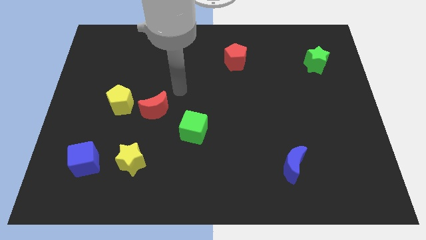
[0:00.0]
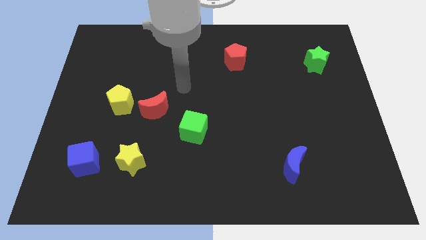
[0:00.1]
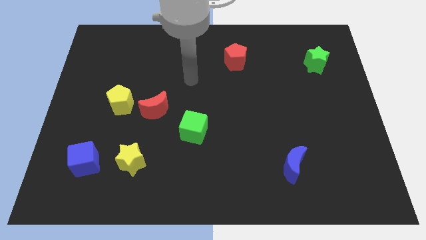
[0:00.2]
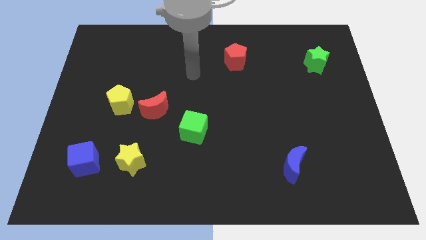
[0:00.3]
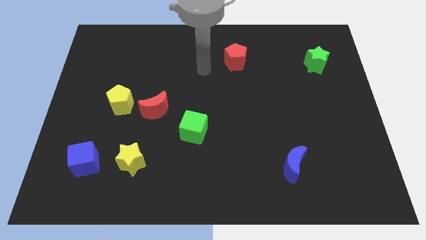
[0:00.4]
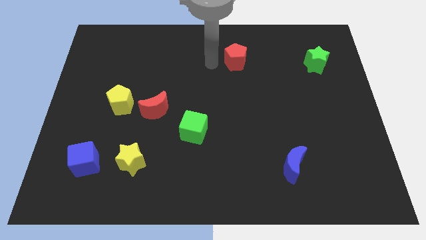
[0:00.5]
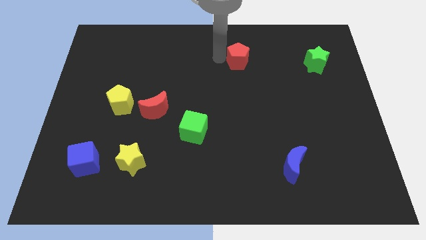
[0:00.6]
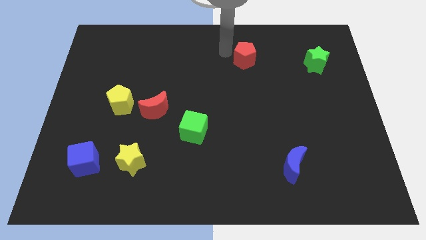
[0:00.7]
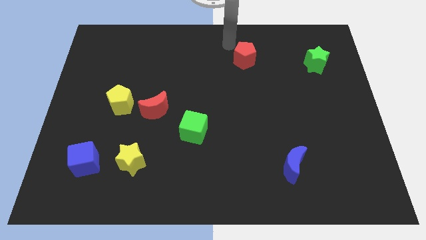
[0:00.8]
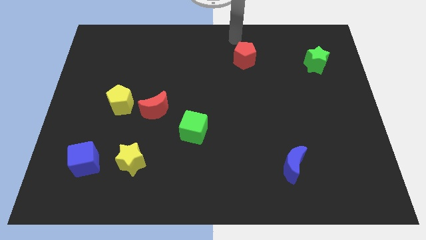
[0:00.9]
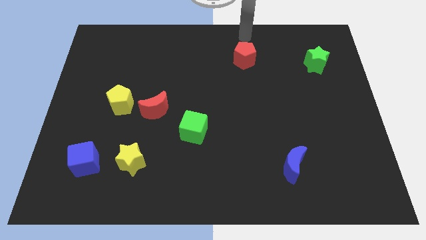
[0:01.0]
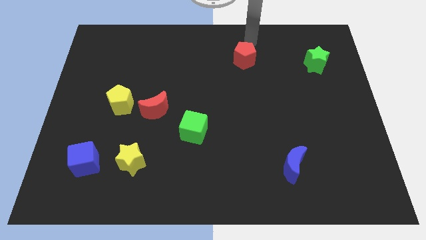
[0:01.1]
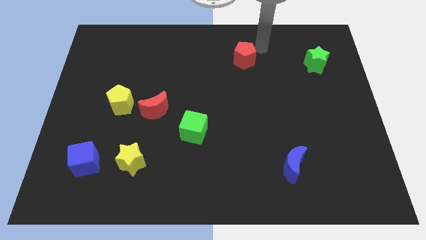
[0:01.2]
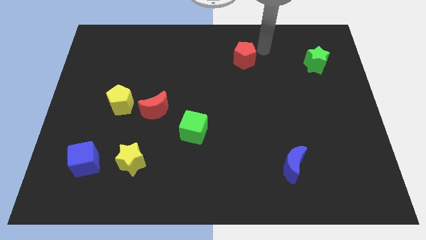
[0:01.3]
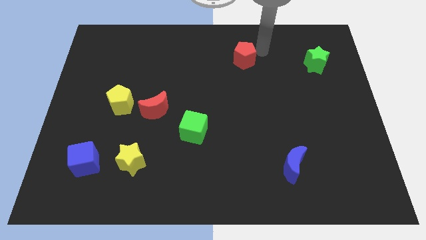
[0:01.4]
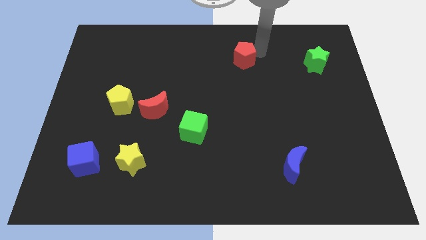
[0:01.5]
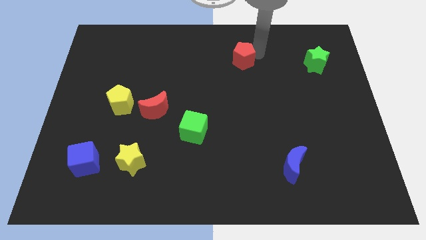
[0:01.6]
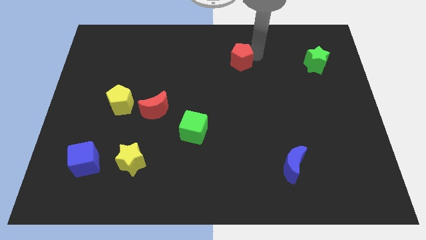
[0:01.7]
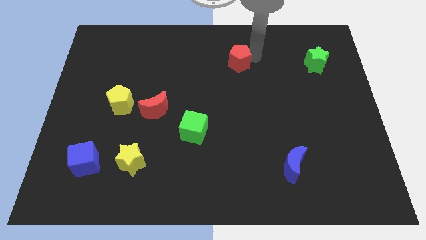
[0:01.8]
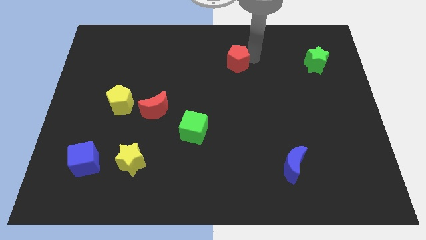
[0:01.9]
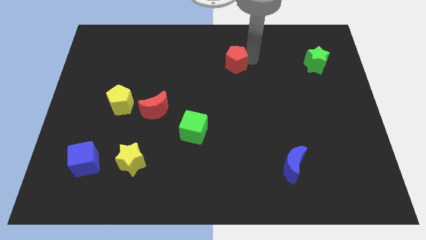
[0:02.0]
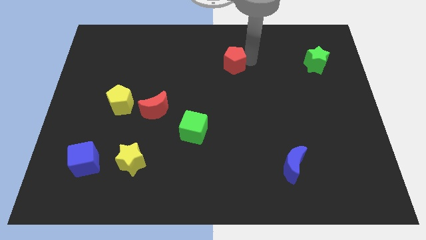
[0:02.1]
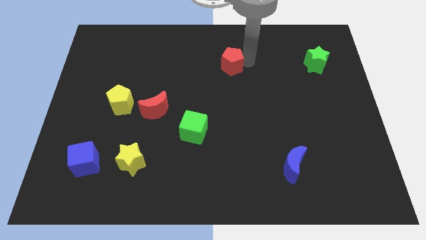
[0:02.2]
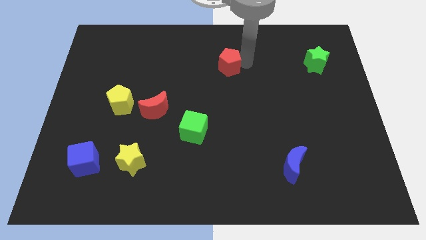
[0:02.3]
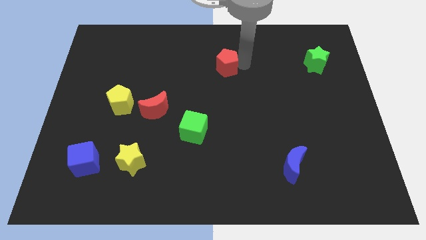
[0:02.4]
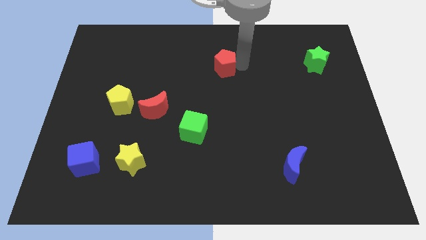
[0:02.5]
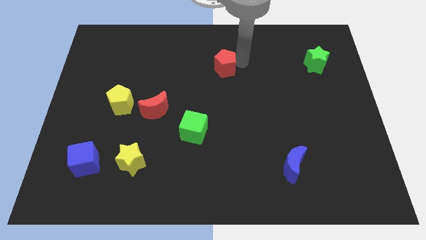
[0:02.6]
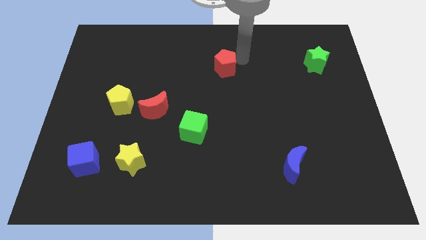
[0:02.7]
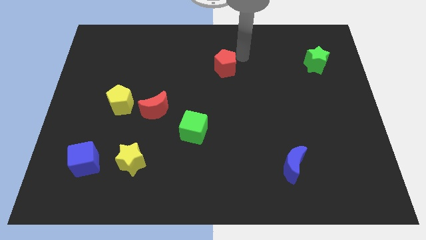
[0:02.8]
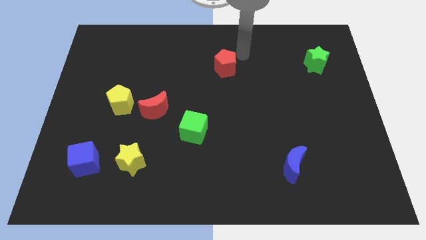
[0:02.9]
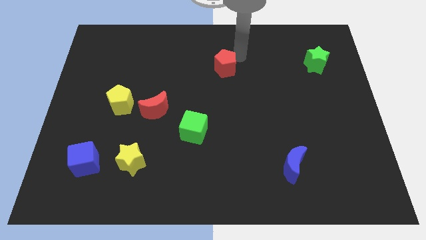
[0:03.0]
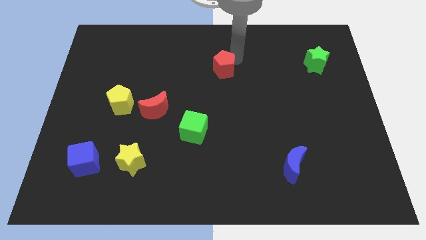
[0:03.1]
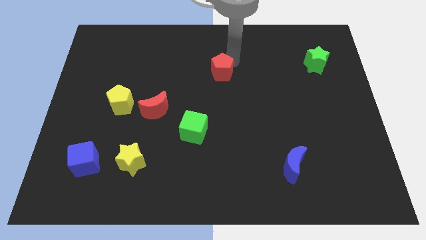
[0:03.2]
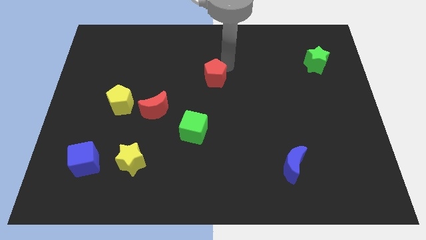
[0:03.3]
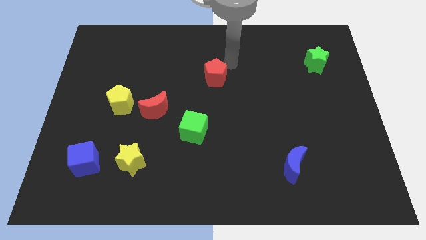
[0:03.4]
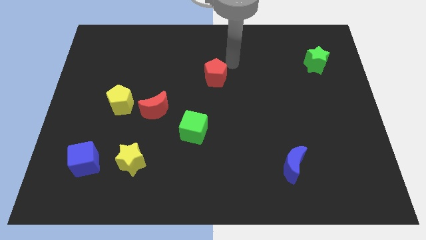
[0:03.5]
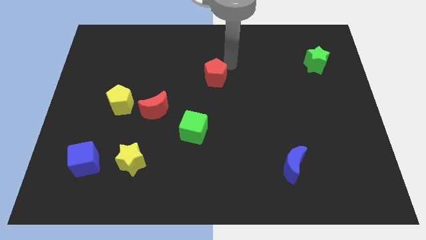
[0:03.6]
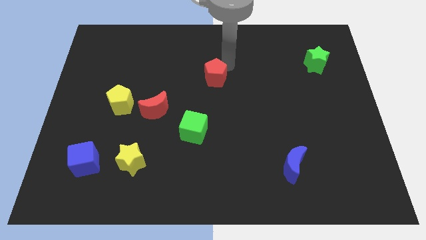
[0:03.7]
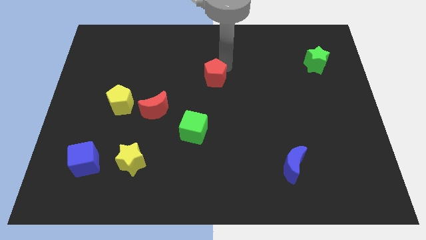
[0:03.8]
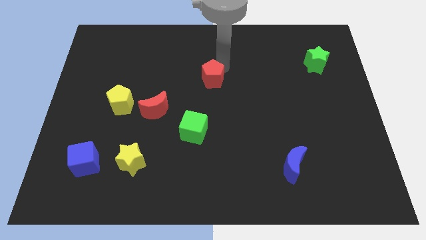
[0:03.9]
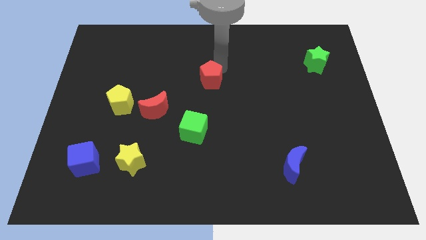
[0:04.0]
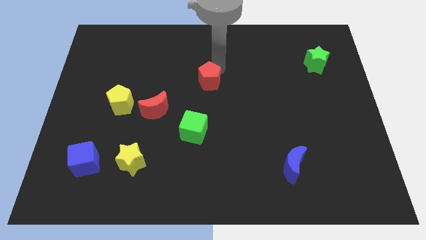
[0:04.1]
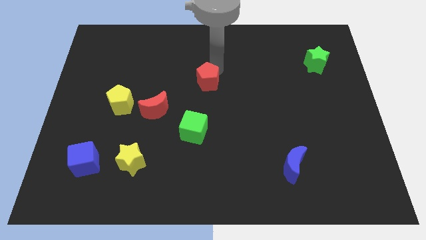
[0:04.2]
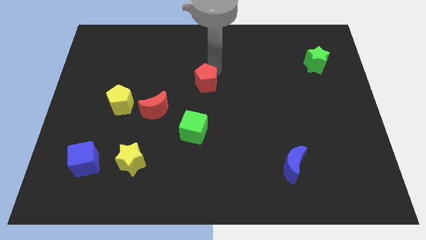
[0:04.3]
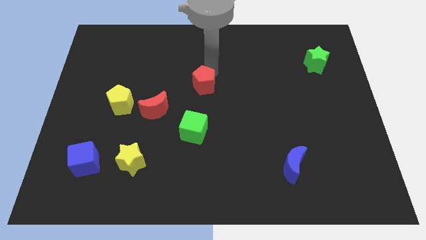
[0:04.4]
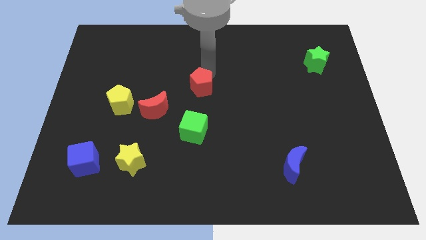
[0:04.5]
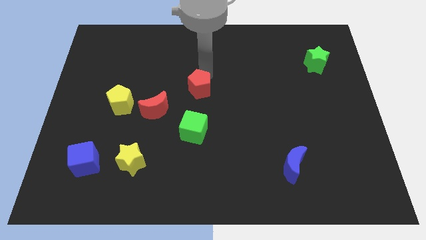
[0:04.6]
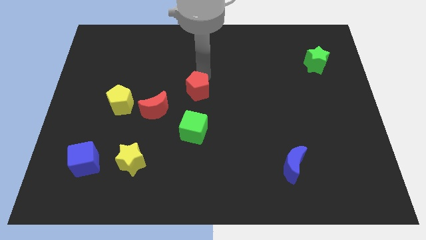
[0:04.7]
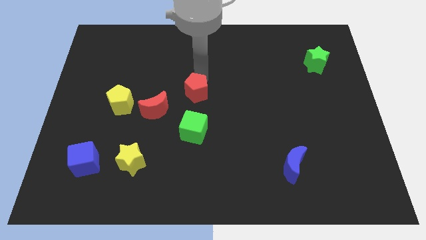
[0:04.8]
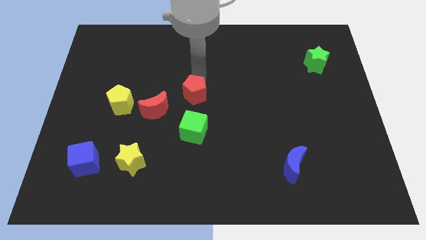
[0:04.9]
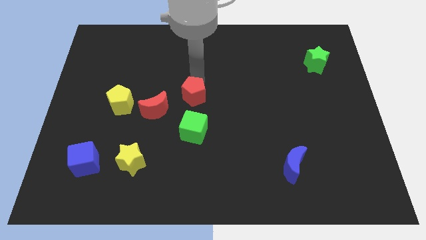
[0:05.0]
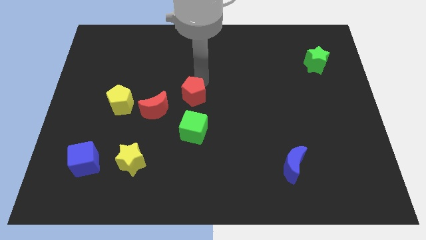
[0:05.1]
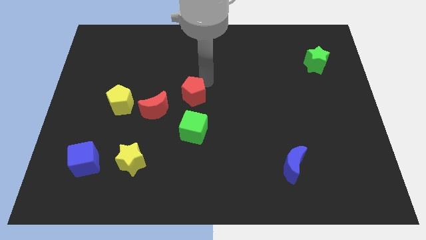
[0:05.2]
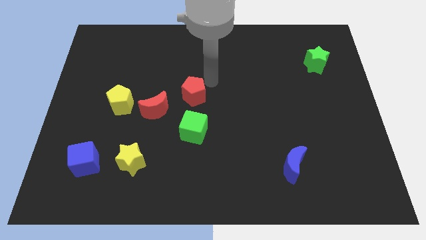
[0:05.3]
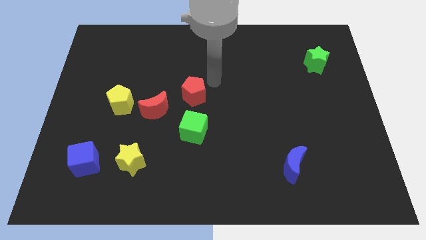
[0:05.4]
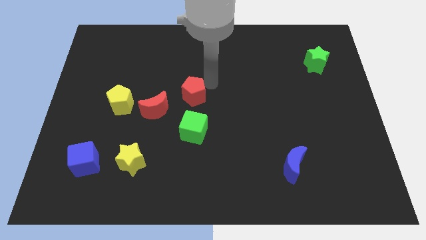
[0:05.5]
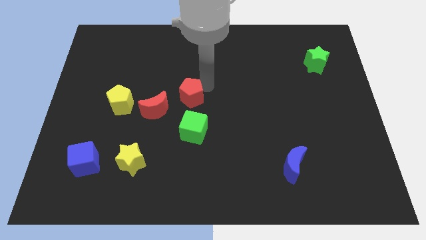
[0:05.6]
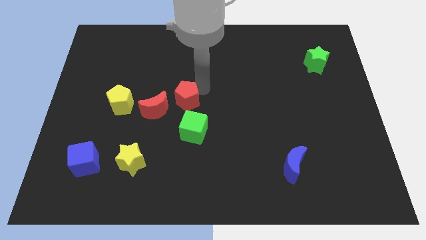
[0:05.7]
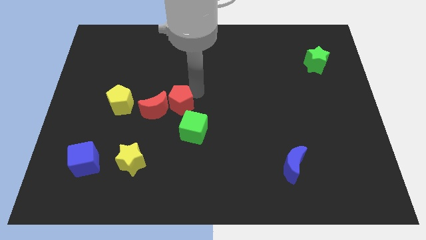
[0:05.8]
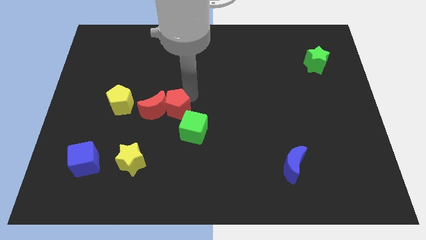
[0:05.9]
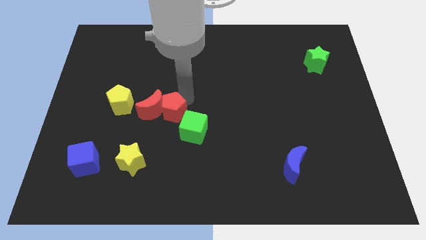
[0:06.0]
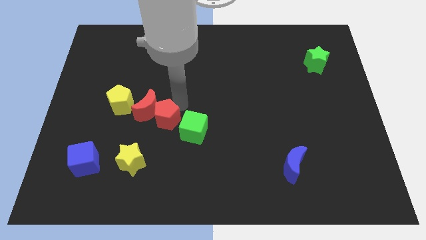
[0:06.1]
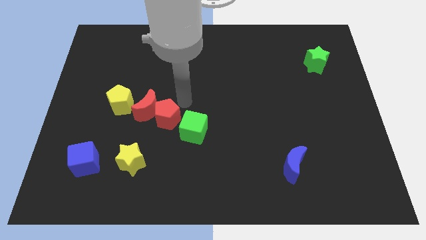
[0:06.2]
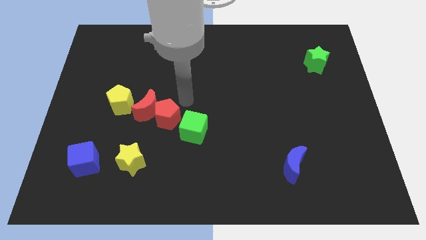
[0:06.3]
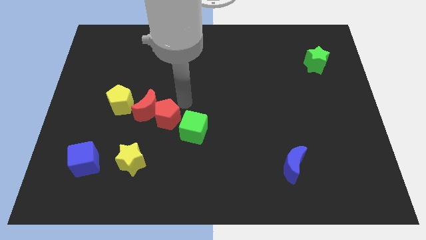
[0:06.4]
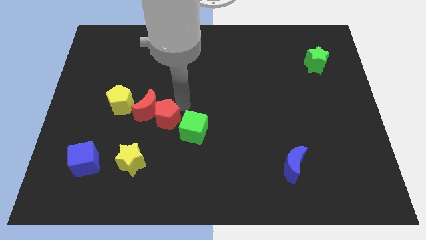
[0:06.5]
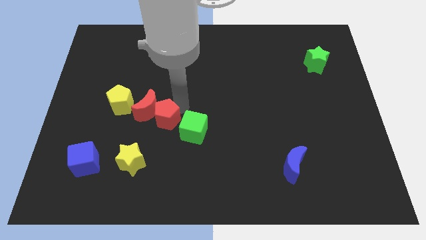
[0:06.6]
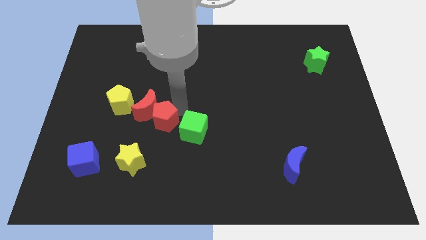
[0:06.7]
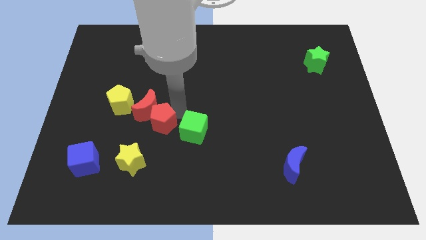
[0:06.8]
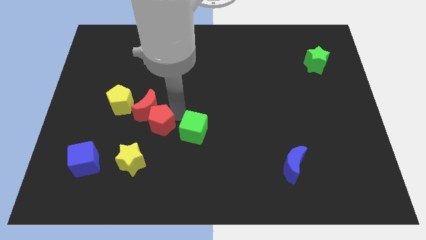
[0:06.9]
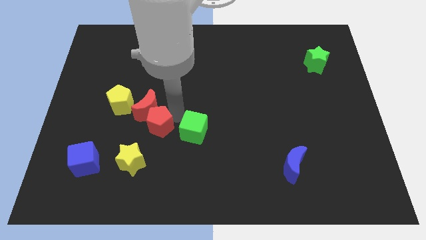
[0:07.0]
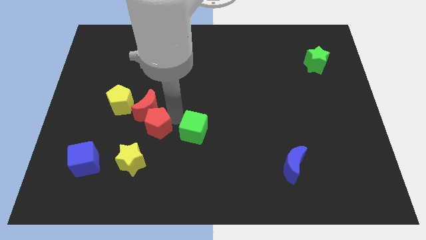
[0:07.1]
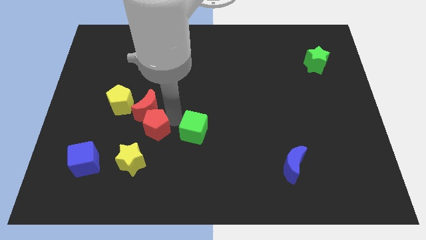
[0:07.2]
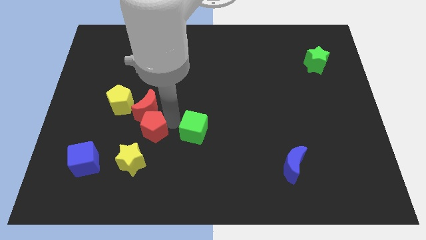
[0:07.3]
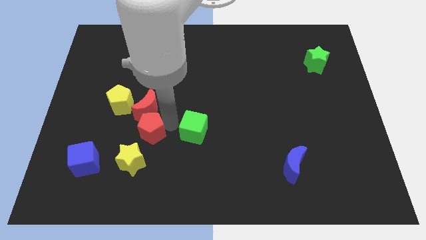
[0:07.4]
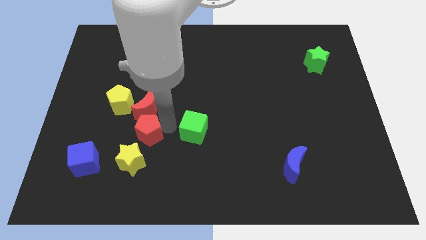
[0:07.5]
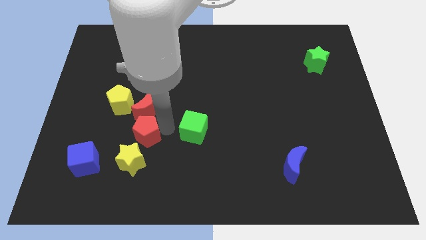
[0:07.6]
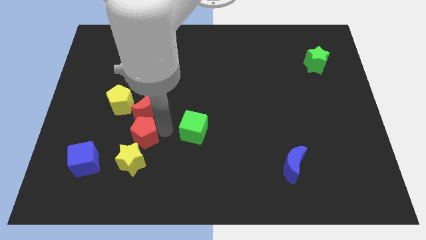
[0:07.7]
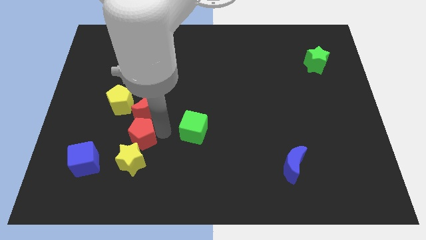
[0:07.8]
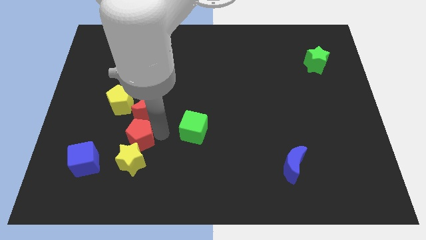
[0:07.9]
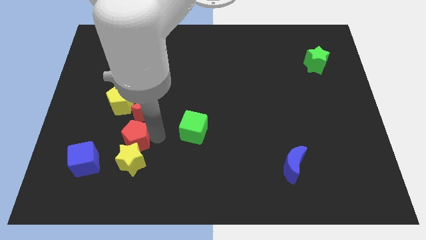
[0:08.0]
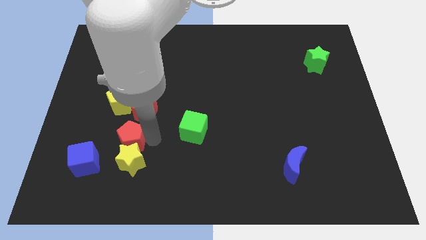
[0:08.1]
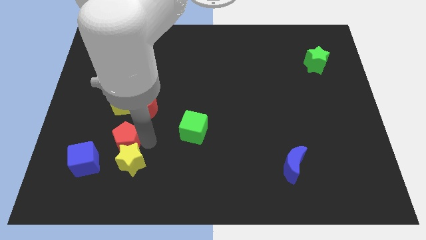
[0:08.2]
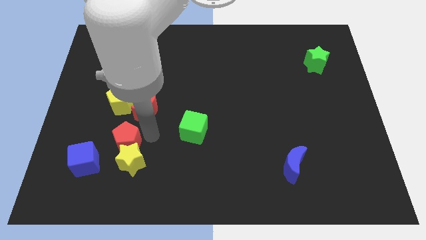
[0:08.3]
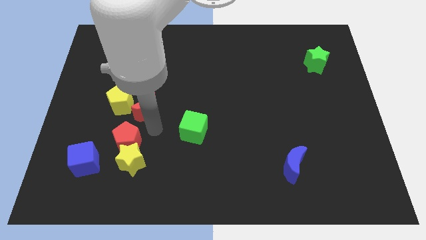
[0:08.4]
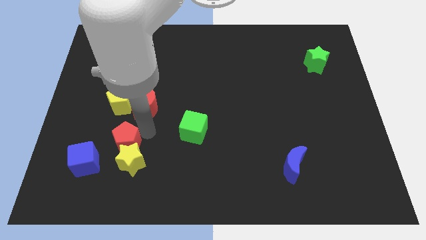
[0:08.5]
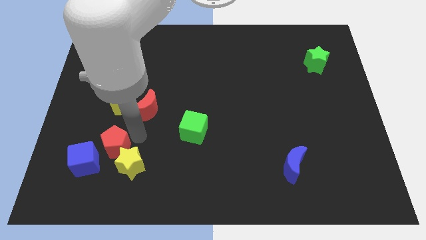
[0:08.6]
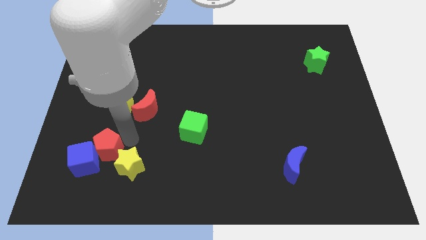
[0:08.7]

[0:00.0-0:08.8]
push the red pentagon next to the blue cube
